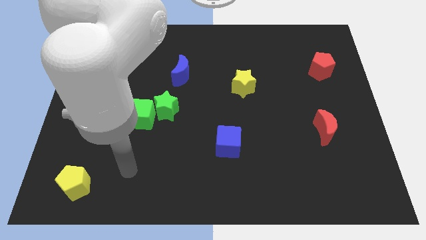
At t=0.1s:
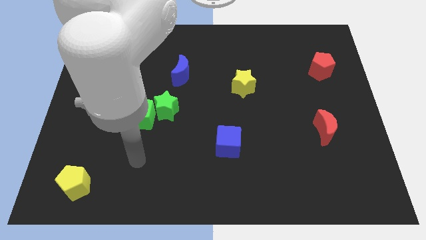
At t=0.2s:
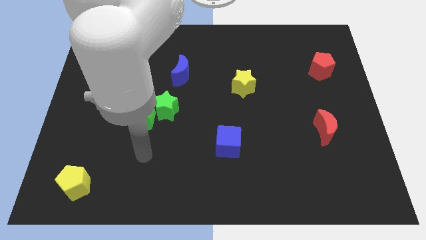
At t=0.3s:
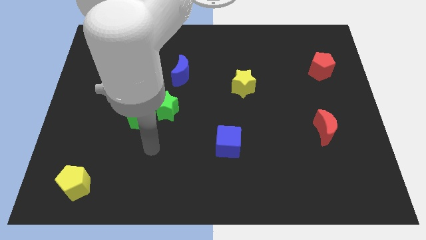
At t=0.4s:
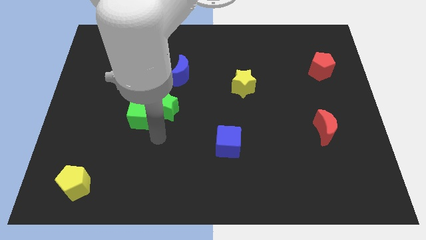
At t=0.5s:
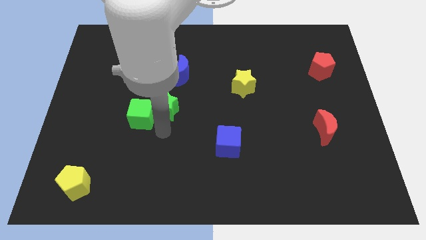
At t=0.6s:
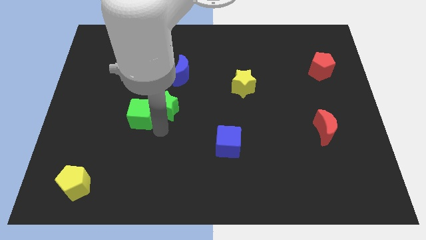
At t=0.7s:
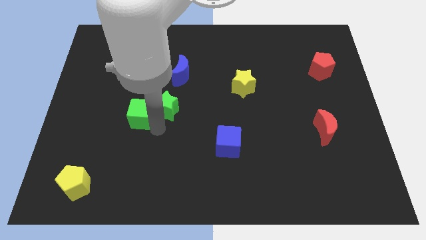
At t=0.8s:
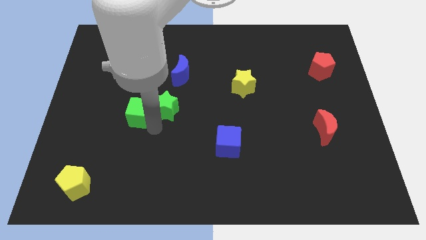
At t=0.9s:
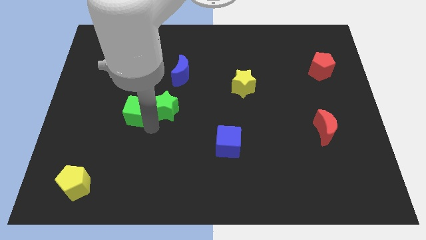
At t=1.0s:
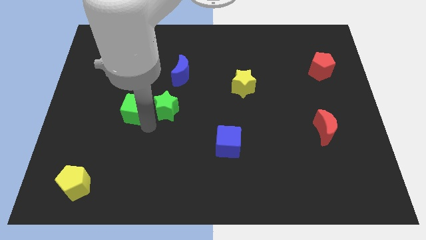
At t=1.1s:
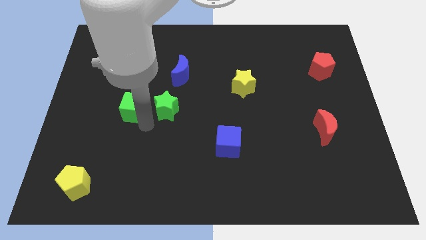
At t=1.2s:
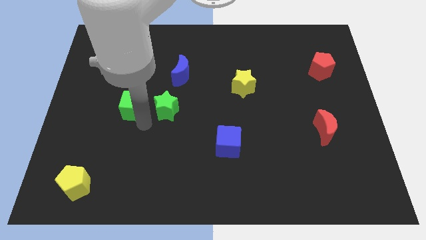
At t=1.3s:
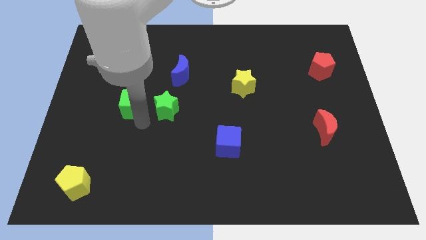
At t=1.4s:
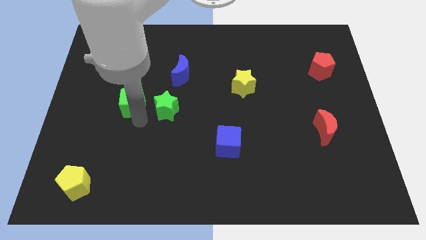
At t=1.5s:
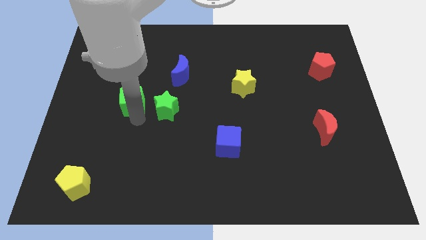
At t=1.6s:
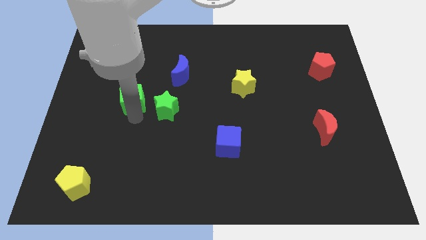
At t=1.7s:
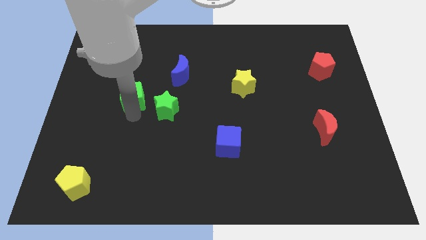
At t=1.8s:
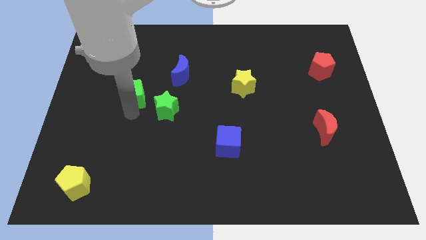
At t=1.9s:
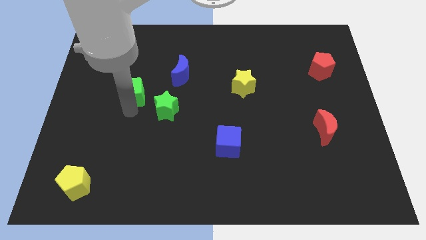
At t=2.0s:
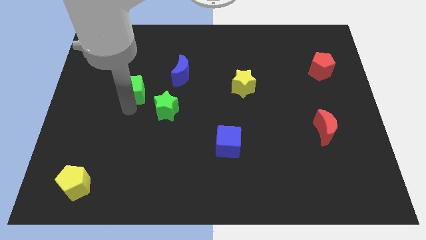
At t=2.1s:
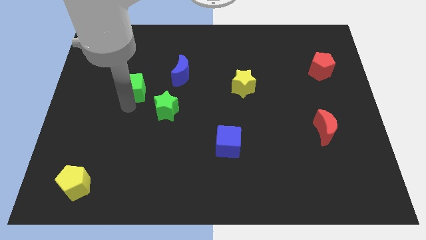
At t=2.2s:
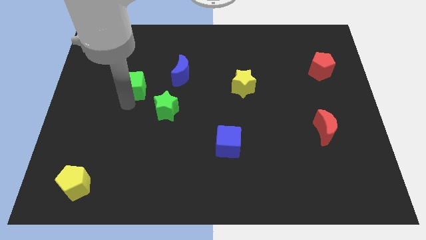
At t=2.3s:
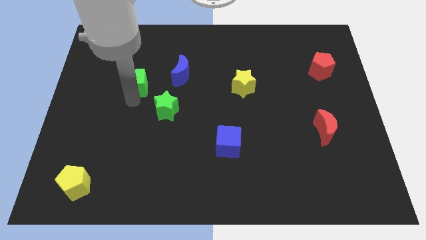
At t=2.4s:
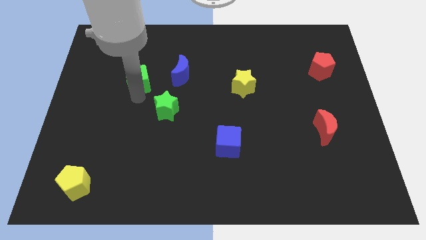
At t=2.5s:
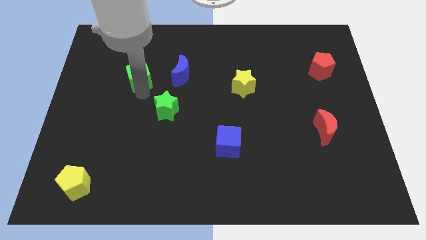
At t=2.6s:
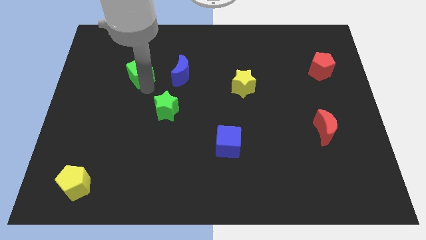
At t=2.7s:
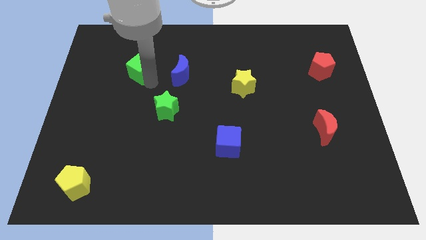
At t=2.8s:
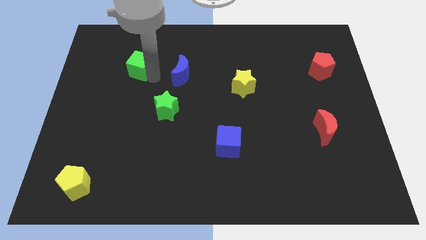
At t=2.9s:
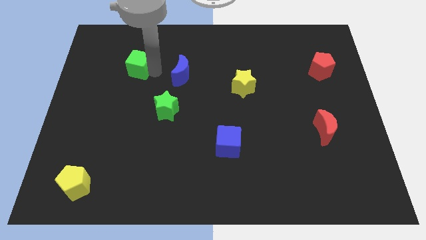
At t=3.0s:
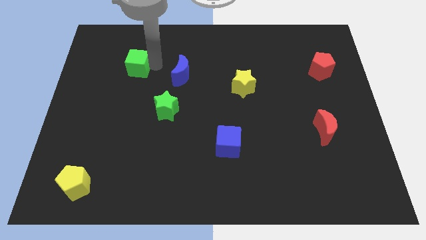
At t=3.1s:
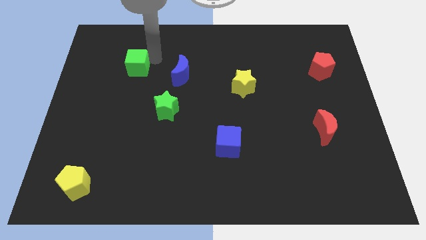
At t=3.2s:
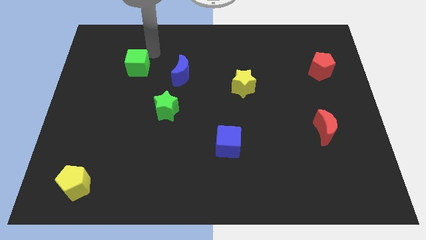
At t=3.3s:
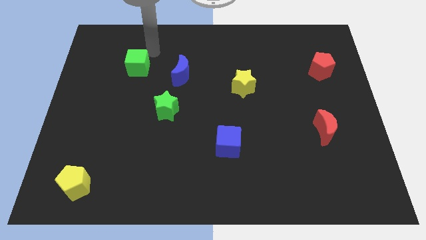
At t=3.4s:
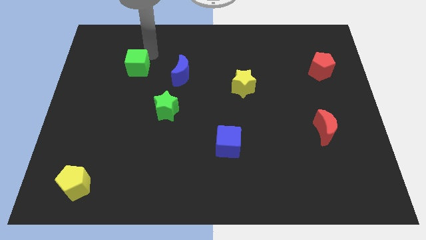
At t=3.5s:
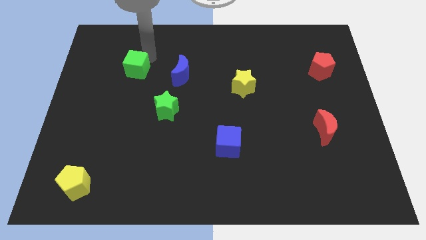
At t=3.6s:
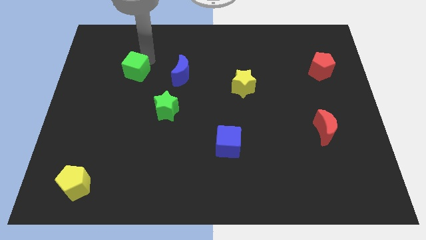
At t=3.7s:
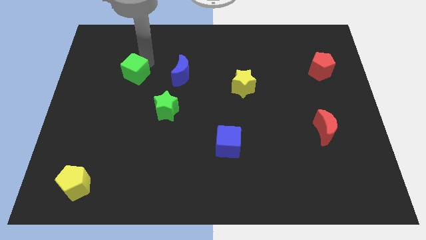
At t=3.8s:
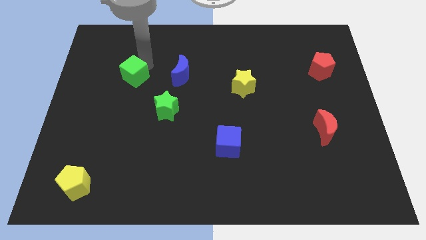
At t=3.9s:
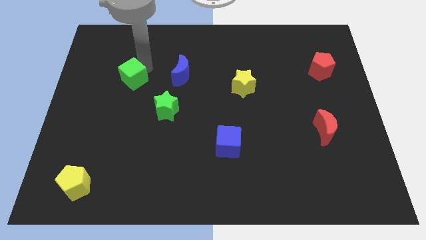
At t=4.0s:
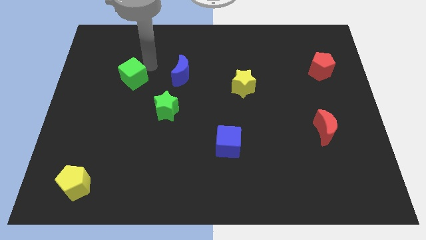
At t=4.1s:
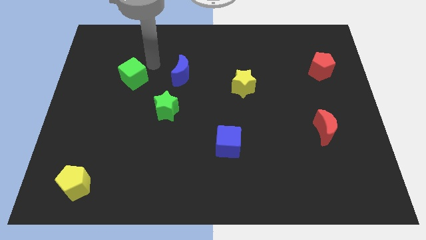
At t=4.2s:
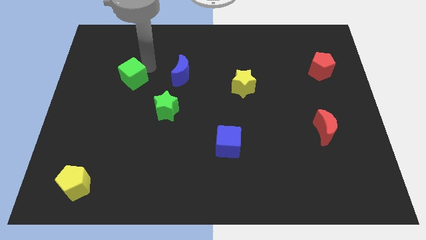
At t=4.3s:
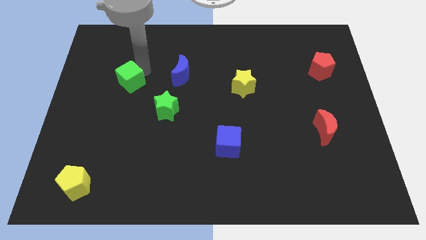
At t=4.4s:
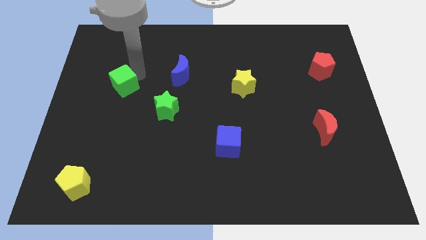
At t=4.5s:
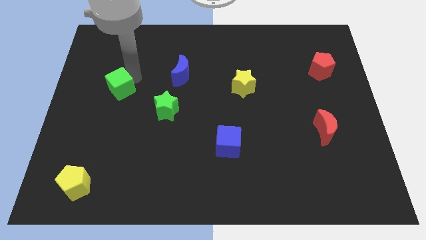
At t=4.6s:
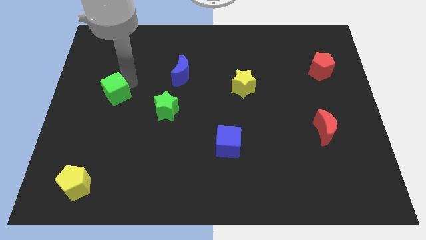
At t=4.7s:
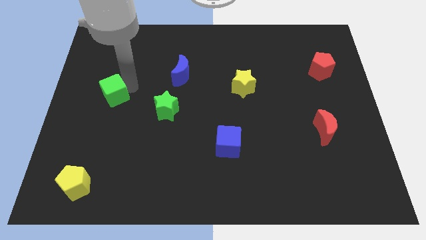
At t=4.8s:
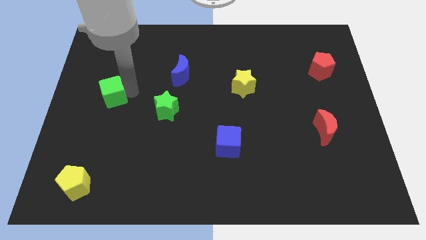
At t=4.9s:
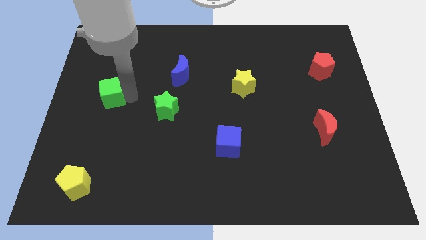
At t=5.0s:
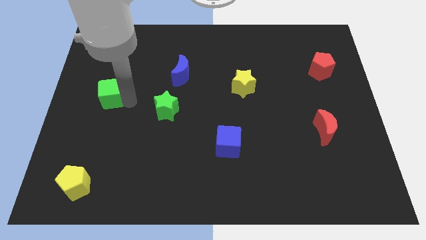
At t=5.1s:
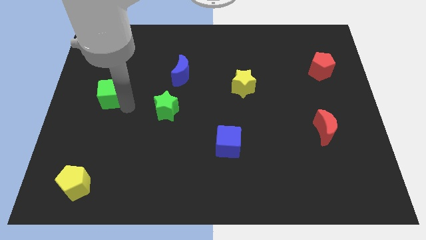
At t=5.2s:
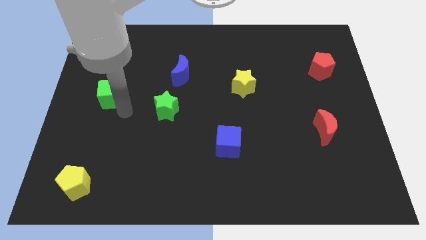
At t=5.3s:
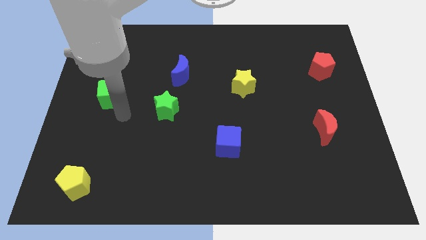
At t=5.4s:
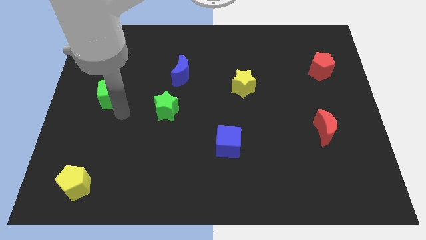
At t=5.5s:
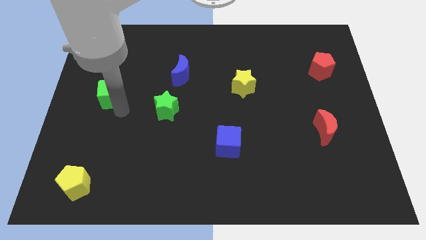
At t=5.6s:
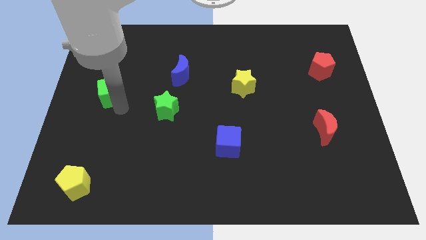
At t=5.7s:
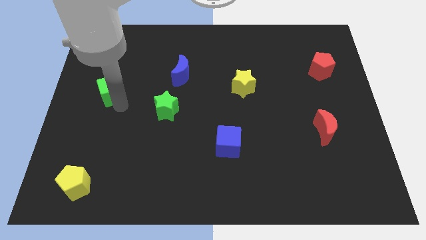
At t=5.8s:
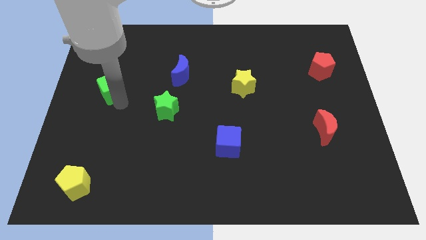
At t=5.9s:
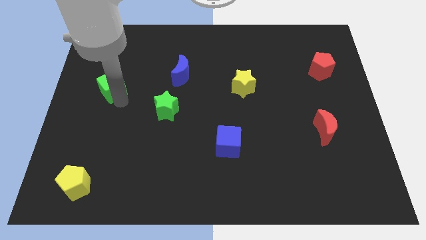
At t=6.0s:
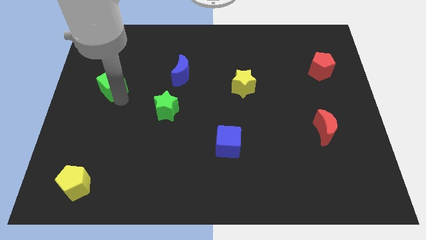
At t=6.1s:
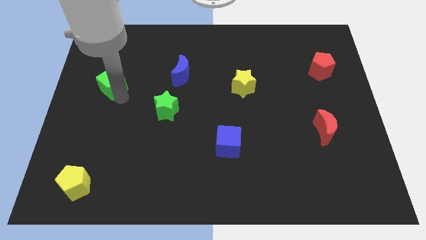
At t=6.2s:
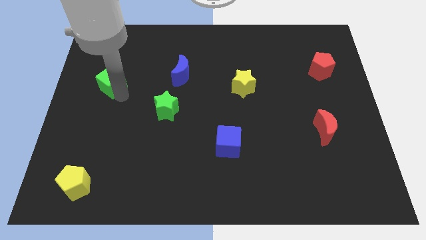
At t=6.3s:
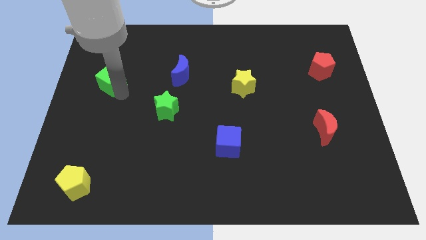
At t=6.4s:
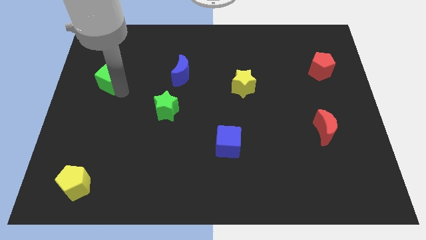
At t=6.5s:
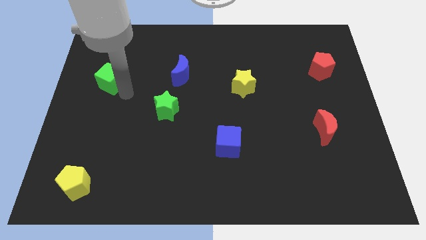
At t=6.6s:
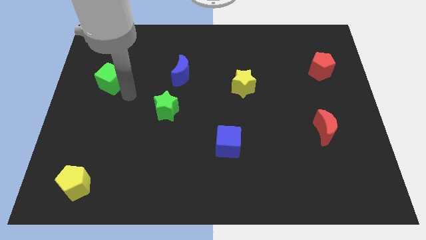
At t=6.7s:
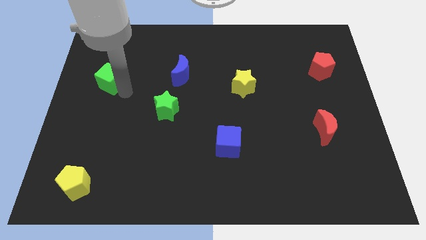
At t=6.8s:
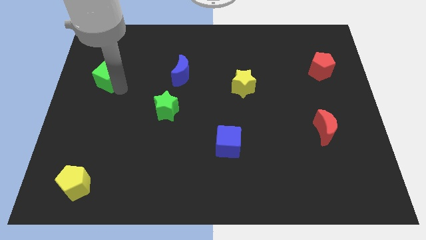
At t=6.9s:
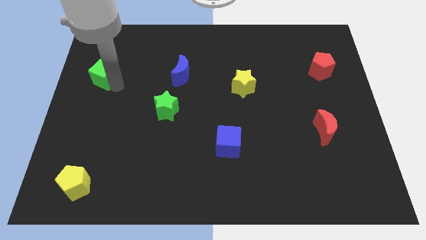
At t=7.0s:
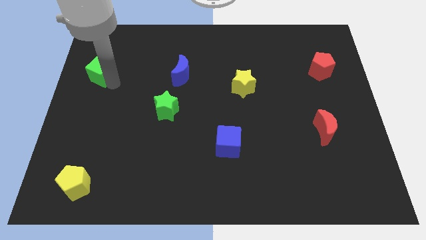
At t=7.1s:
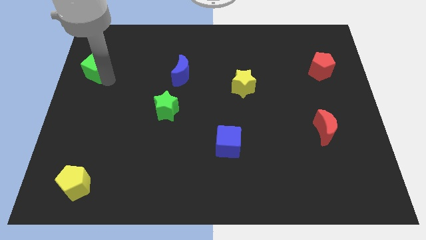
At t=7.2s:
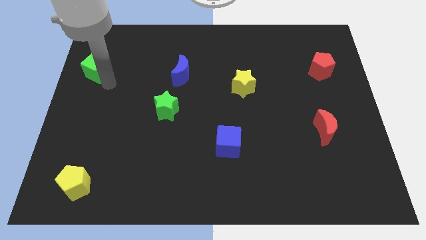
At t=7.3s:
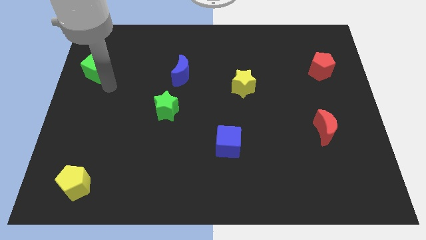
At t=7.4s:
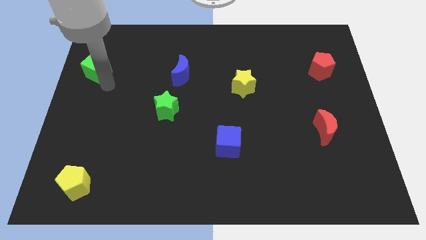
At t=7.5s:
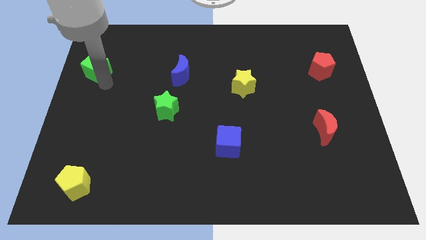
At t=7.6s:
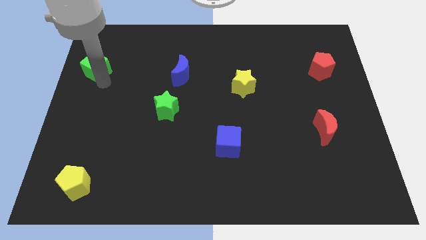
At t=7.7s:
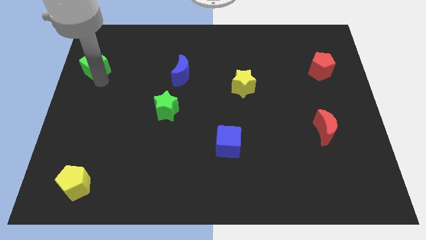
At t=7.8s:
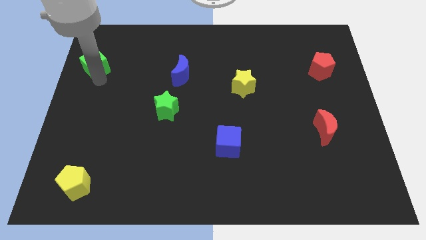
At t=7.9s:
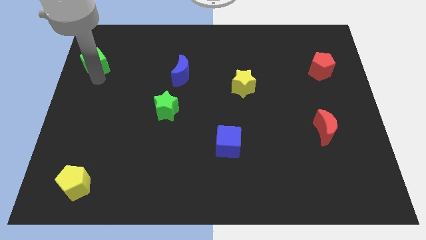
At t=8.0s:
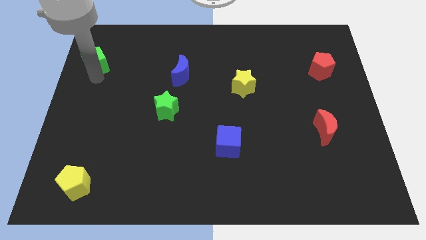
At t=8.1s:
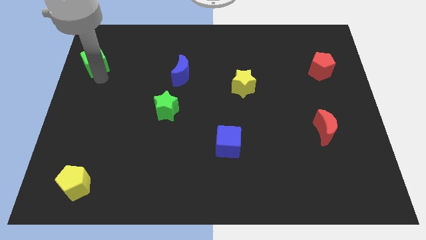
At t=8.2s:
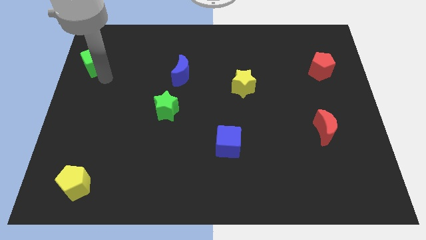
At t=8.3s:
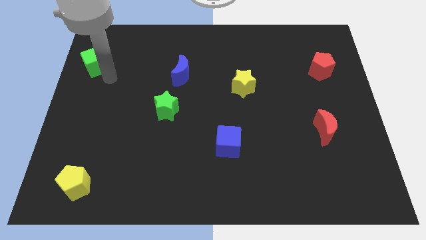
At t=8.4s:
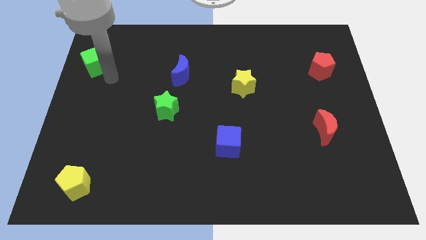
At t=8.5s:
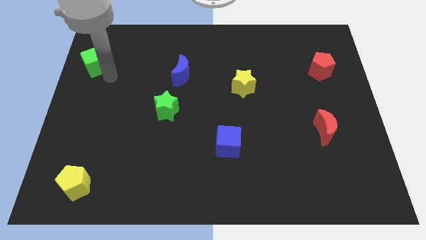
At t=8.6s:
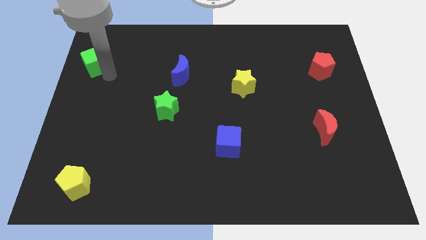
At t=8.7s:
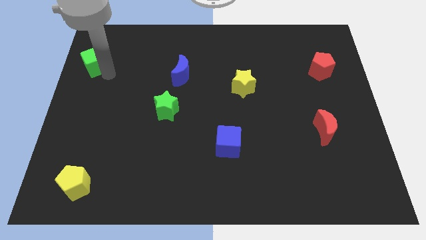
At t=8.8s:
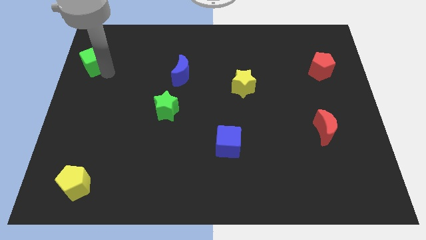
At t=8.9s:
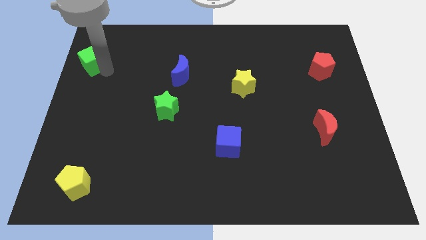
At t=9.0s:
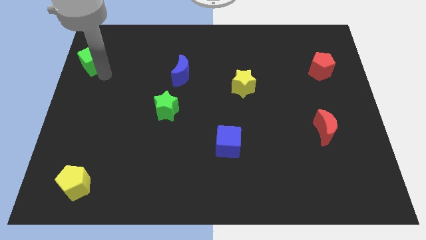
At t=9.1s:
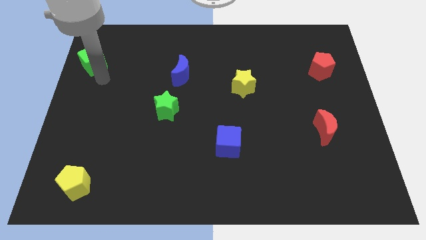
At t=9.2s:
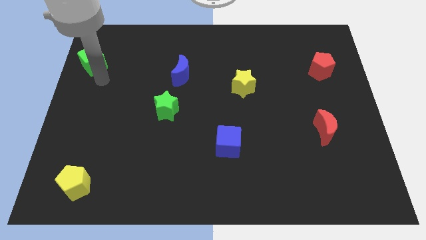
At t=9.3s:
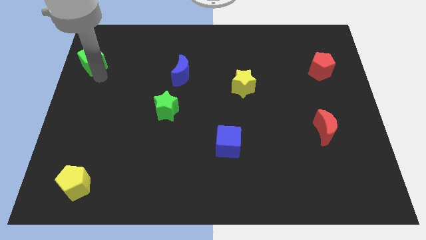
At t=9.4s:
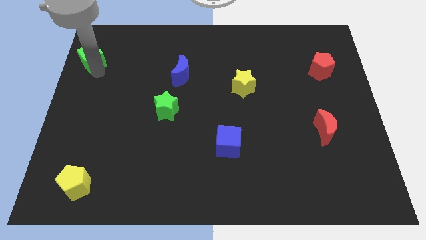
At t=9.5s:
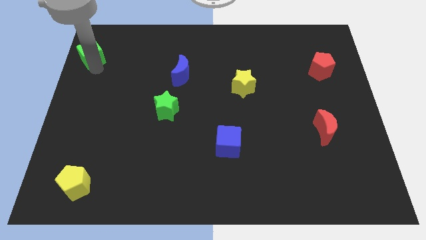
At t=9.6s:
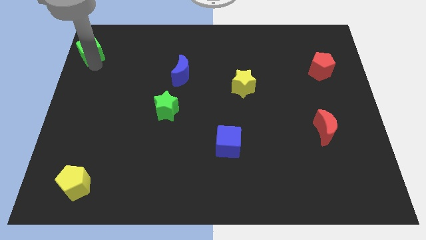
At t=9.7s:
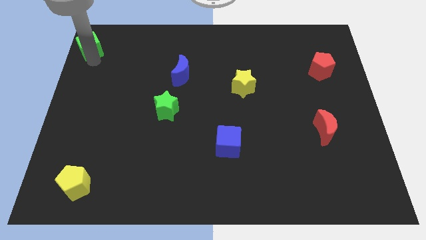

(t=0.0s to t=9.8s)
put the green cube to the top left of the board
